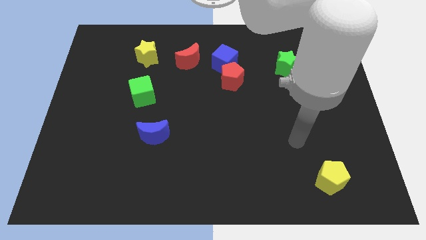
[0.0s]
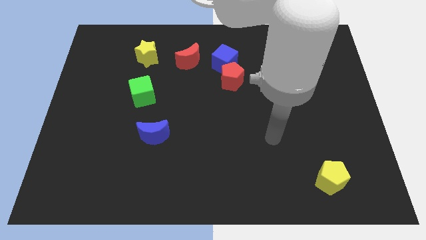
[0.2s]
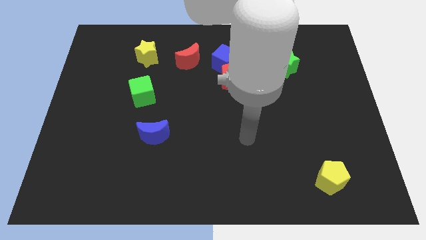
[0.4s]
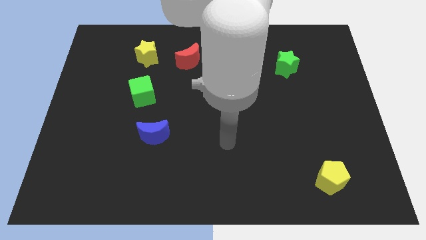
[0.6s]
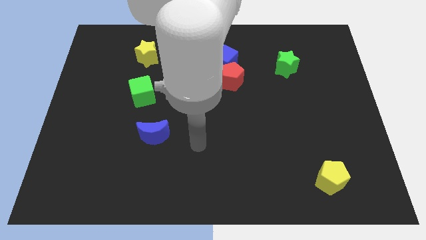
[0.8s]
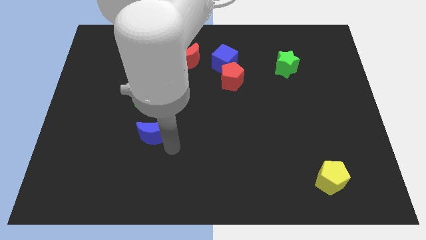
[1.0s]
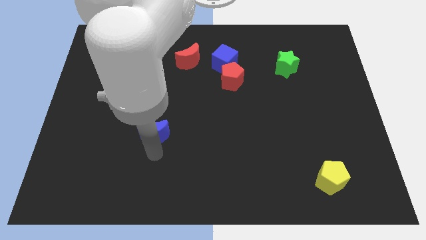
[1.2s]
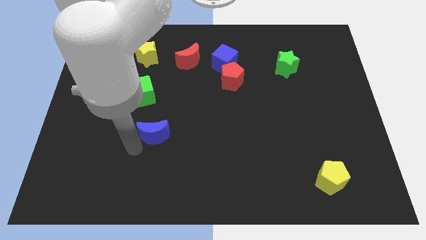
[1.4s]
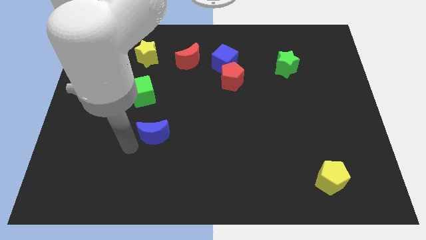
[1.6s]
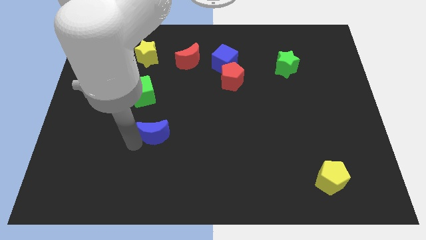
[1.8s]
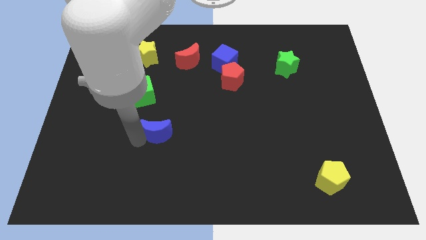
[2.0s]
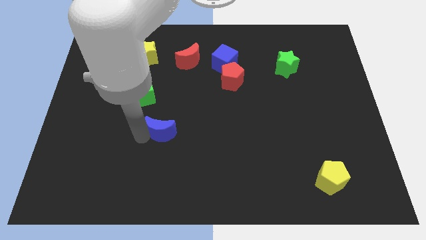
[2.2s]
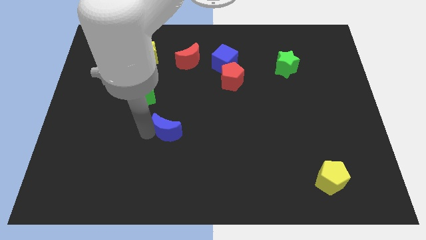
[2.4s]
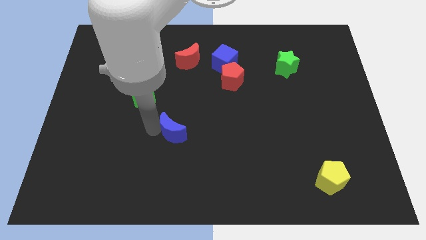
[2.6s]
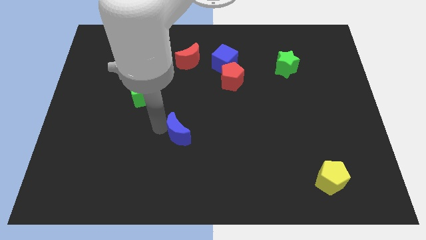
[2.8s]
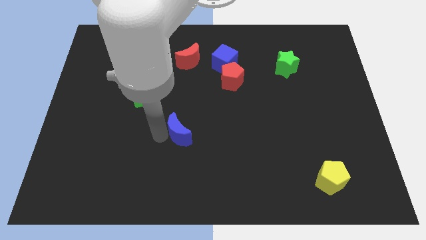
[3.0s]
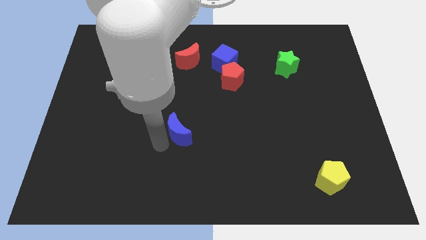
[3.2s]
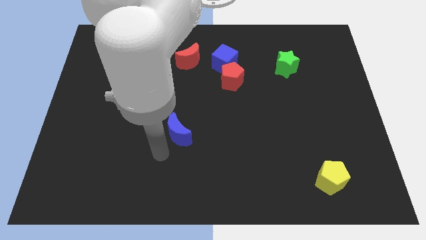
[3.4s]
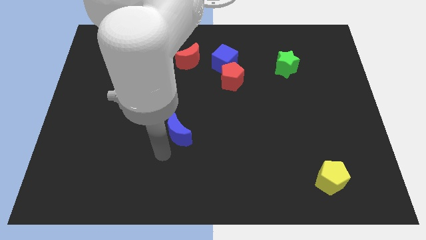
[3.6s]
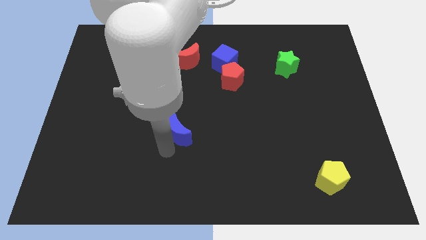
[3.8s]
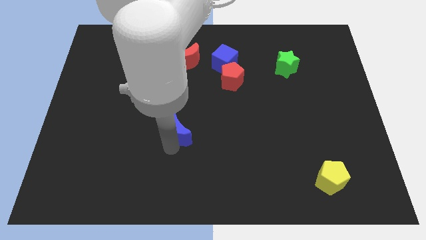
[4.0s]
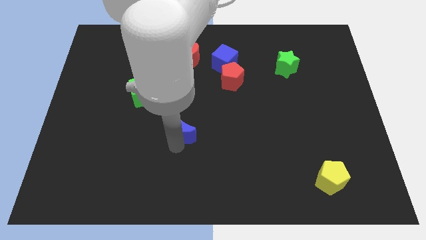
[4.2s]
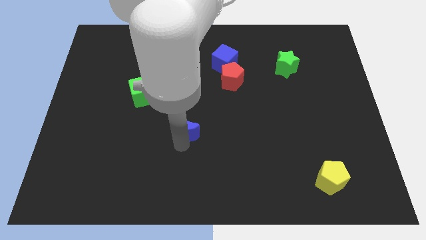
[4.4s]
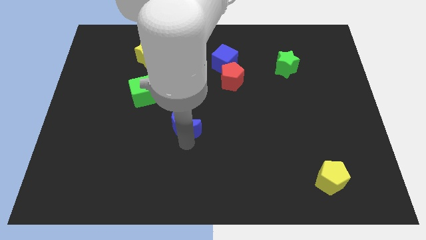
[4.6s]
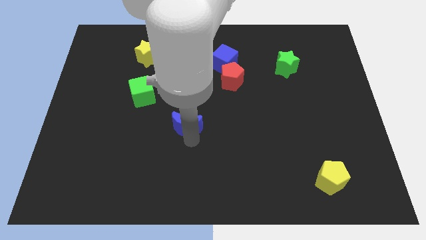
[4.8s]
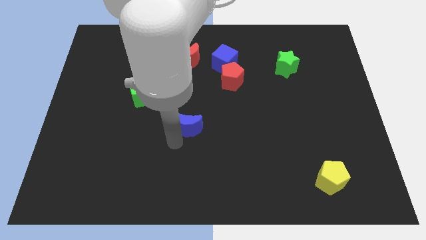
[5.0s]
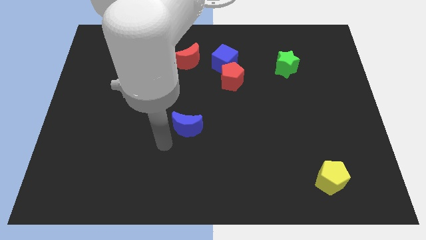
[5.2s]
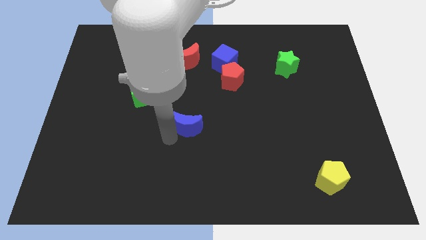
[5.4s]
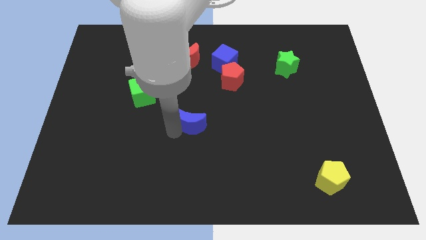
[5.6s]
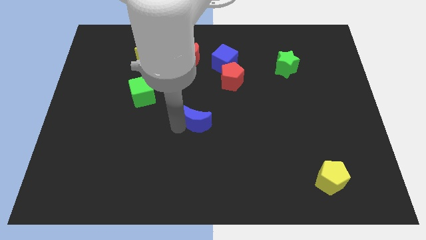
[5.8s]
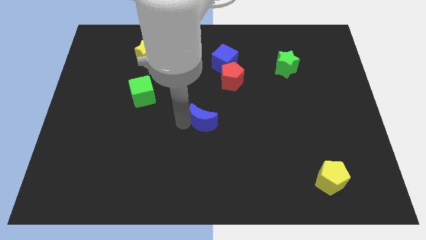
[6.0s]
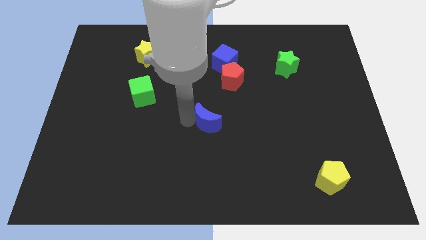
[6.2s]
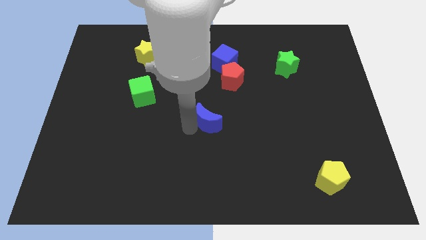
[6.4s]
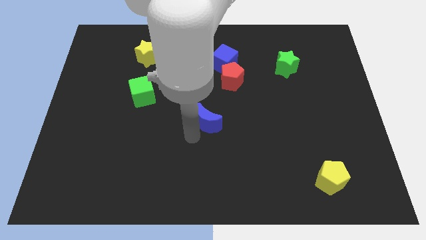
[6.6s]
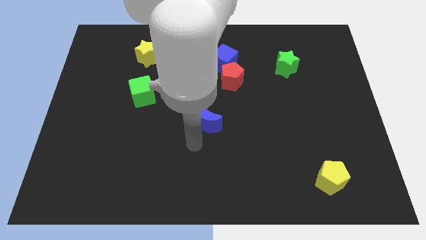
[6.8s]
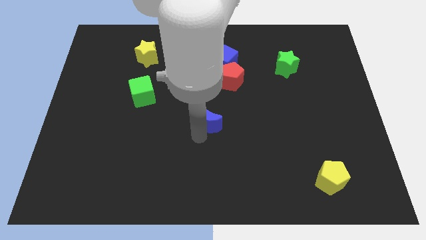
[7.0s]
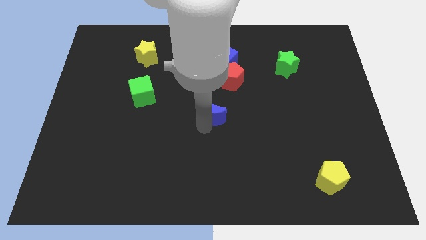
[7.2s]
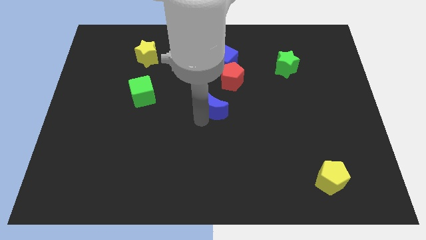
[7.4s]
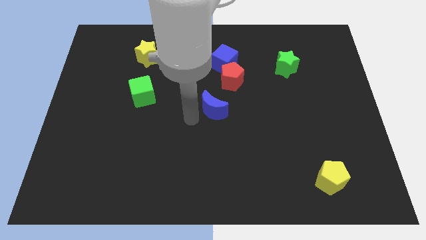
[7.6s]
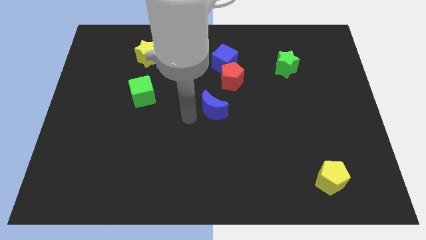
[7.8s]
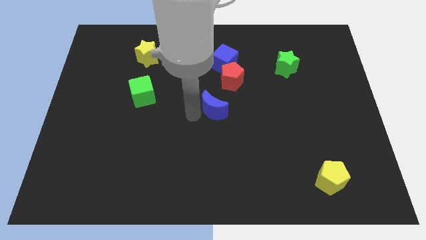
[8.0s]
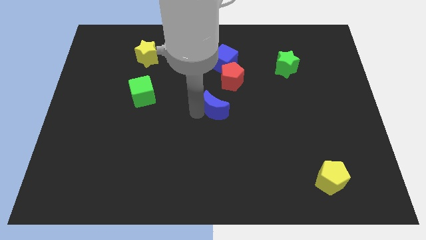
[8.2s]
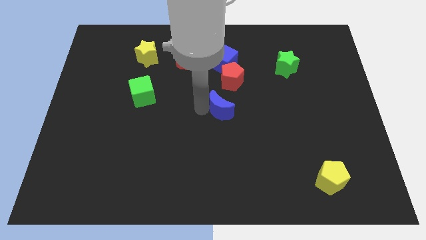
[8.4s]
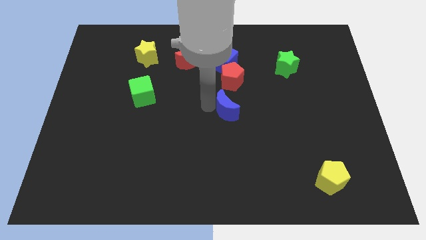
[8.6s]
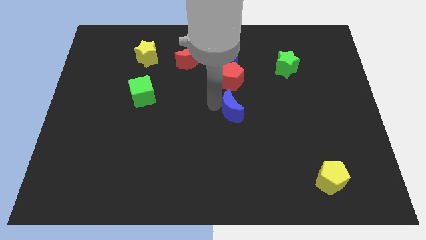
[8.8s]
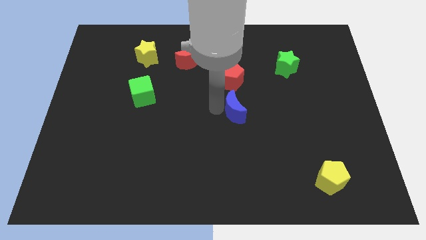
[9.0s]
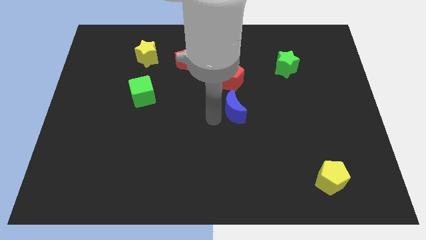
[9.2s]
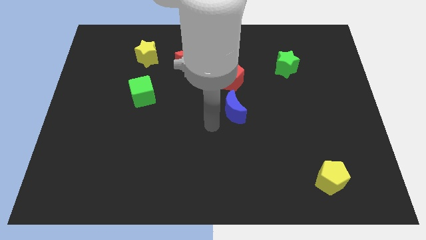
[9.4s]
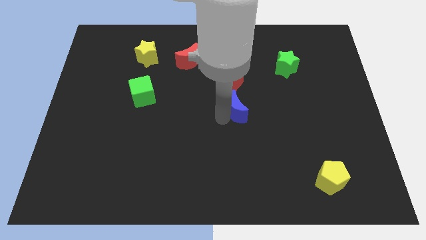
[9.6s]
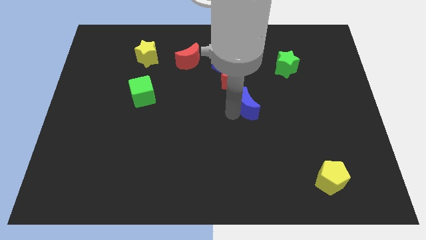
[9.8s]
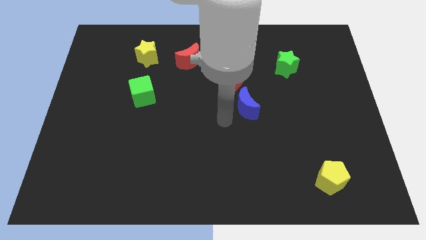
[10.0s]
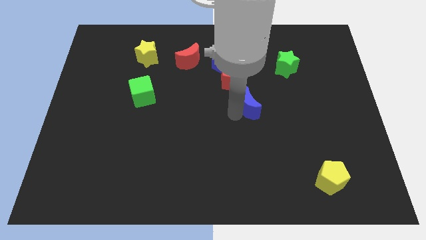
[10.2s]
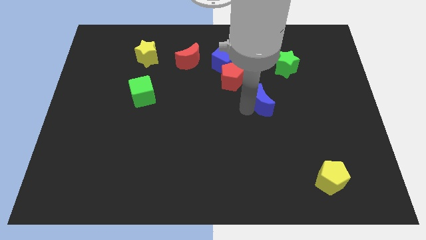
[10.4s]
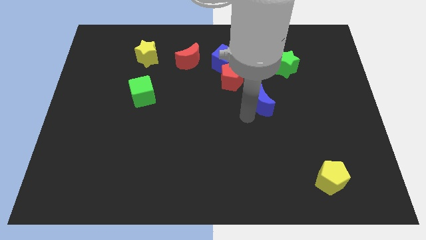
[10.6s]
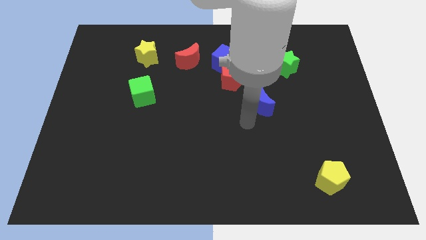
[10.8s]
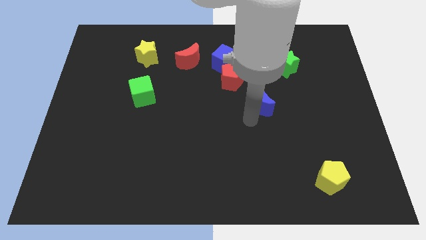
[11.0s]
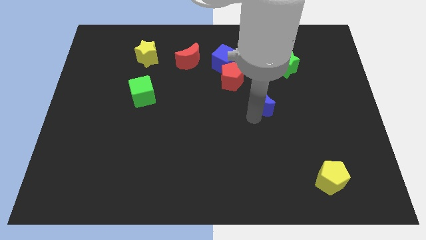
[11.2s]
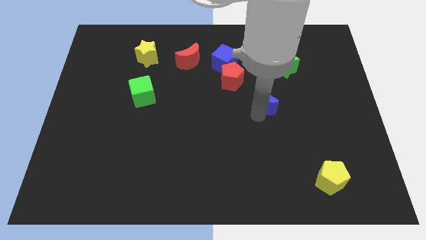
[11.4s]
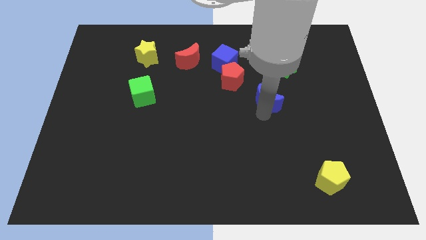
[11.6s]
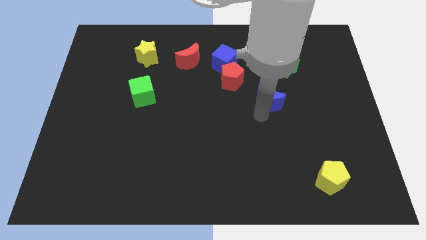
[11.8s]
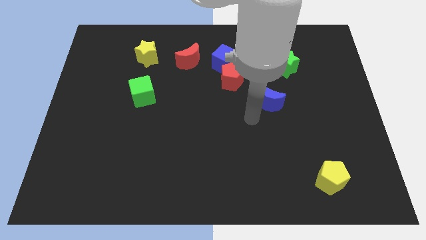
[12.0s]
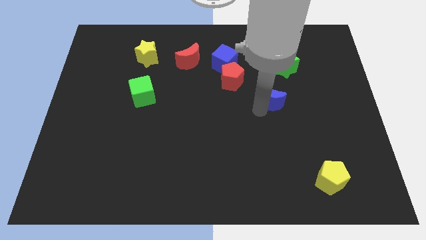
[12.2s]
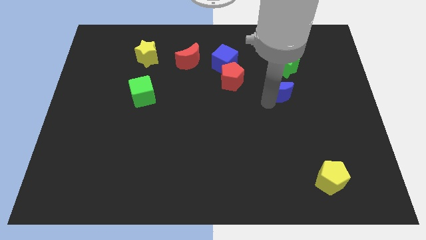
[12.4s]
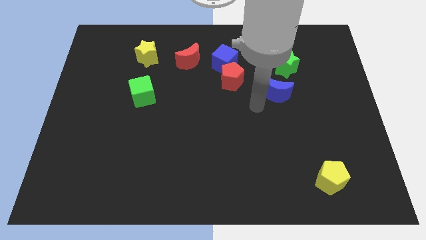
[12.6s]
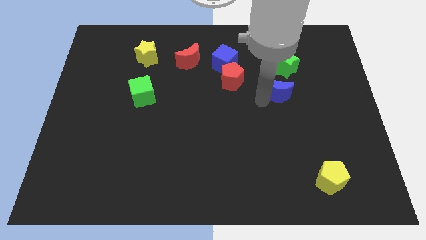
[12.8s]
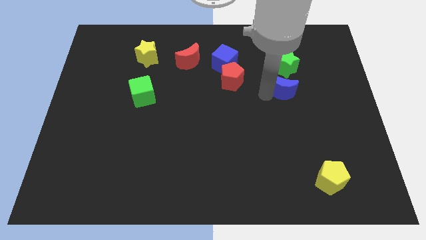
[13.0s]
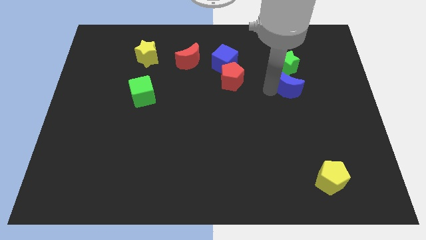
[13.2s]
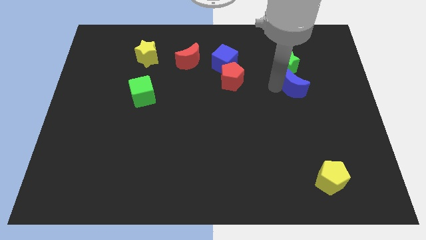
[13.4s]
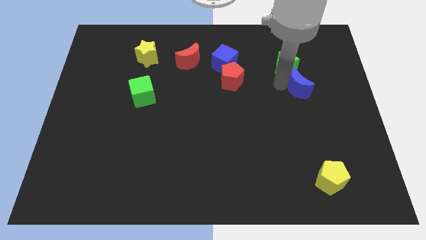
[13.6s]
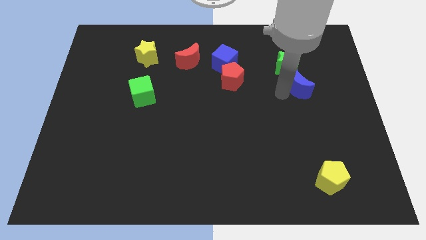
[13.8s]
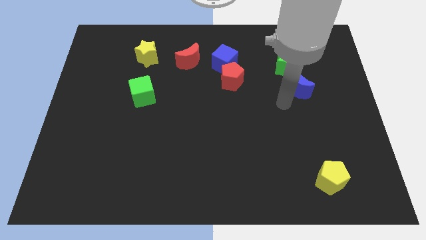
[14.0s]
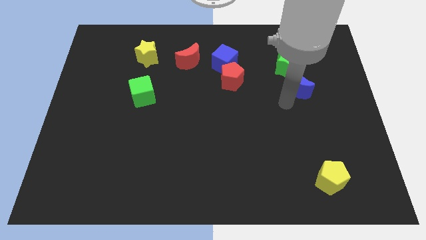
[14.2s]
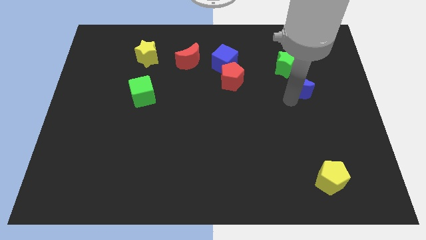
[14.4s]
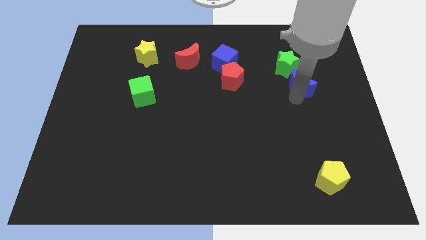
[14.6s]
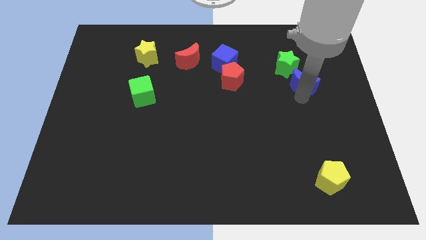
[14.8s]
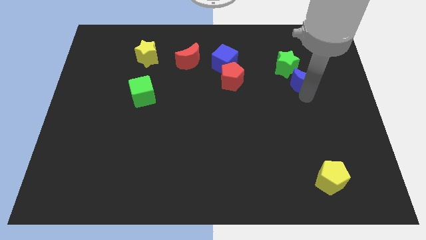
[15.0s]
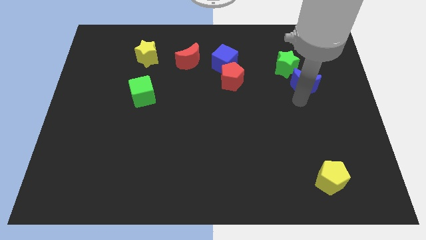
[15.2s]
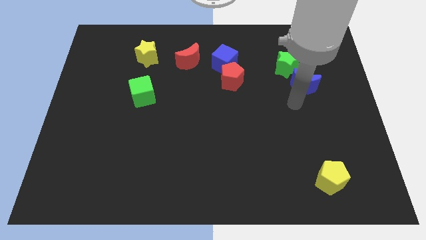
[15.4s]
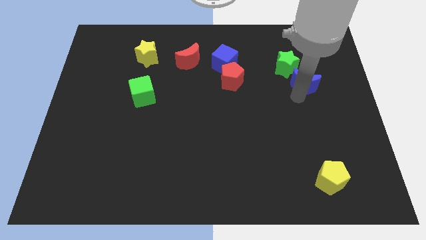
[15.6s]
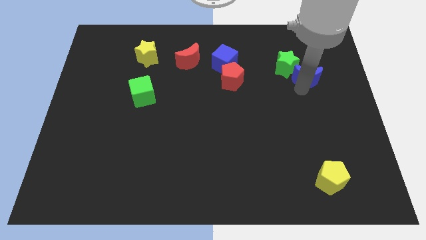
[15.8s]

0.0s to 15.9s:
put the blue moon right of the green star
